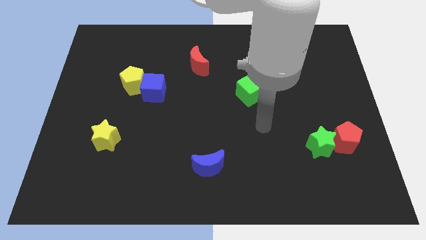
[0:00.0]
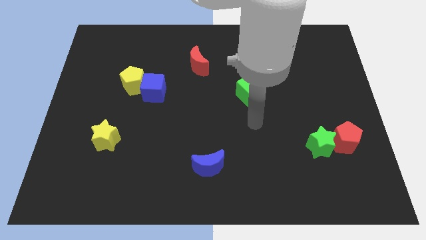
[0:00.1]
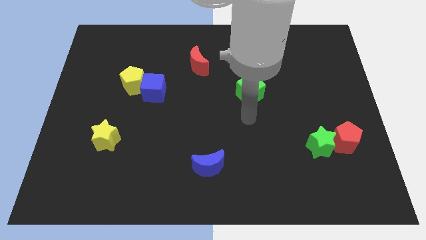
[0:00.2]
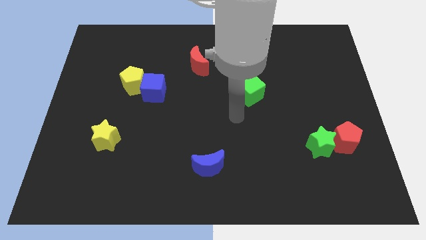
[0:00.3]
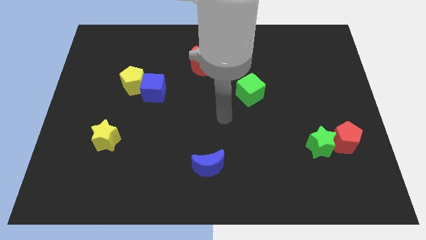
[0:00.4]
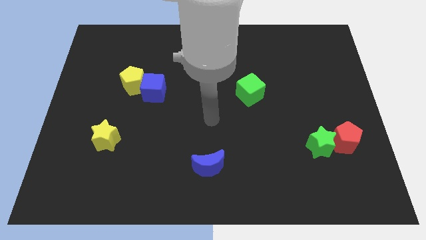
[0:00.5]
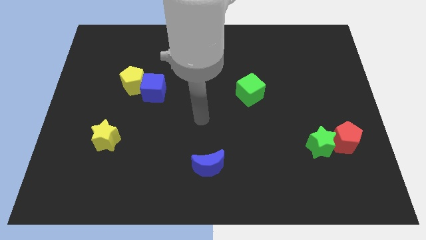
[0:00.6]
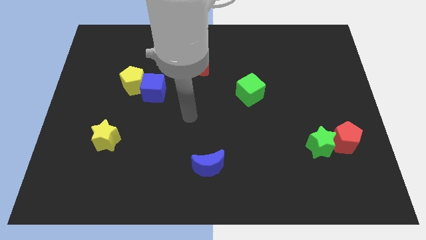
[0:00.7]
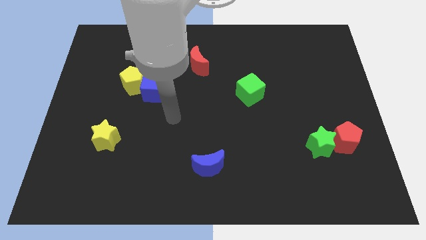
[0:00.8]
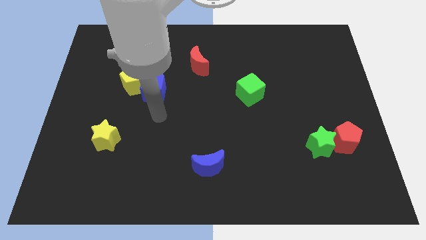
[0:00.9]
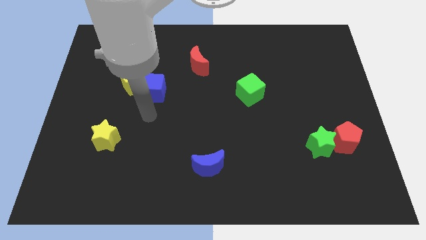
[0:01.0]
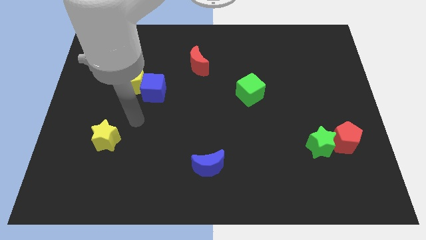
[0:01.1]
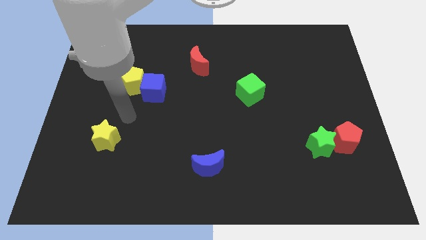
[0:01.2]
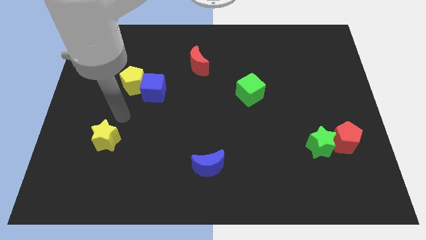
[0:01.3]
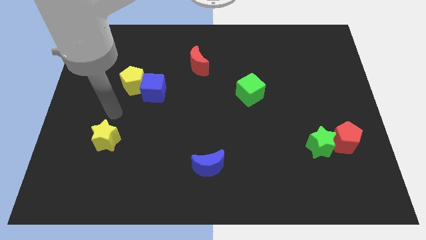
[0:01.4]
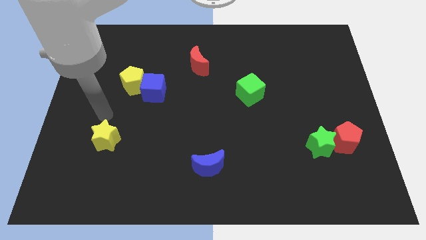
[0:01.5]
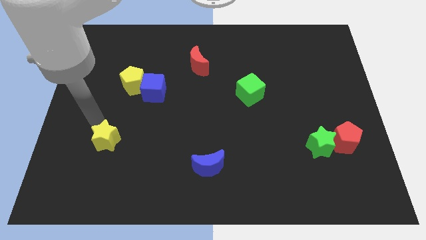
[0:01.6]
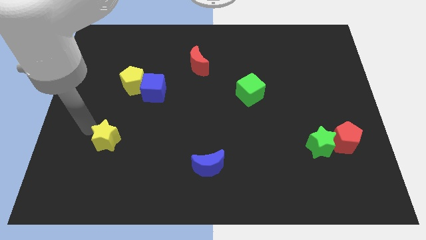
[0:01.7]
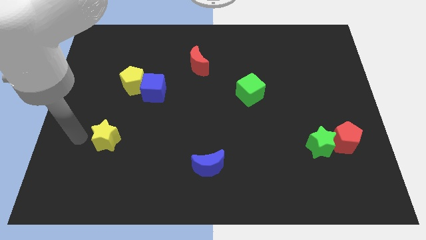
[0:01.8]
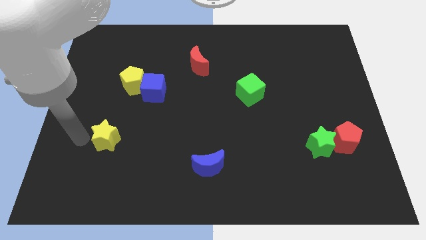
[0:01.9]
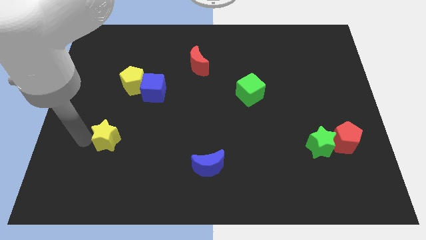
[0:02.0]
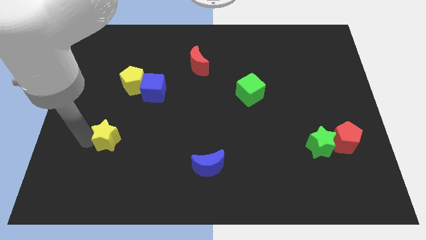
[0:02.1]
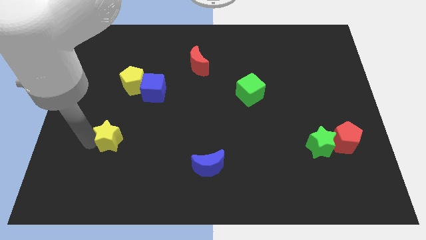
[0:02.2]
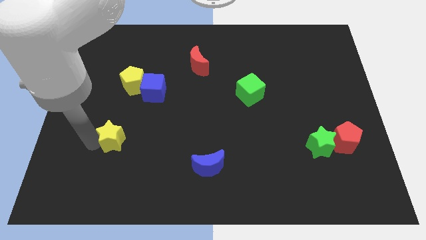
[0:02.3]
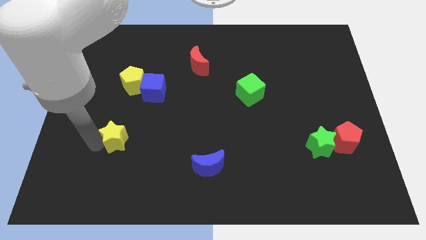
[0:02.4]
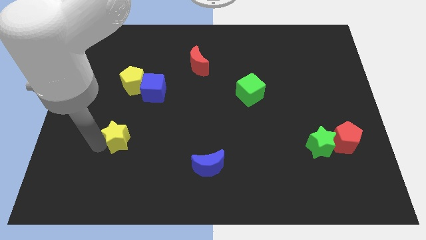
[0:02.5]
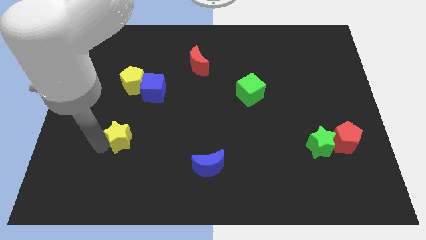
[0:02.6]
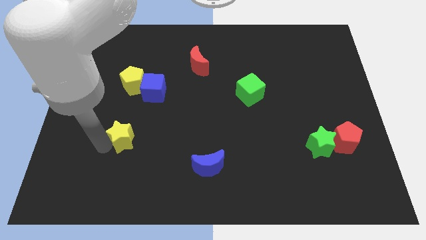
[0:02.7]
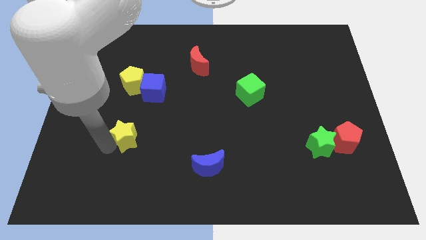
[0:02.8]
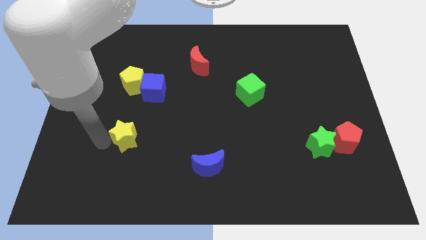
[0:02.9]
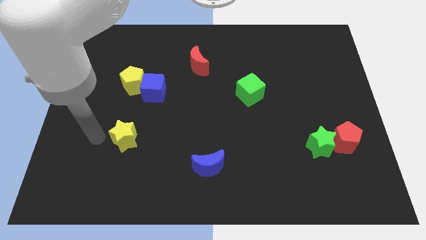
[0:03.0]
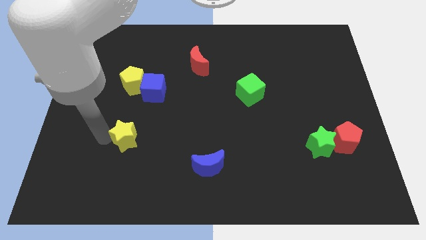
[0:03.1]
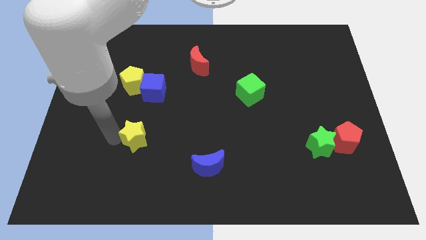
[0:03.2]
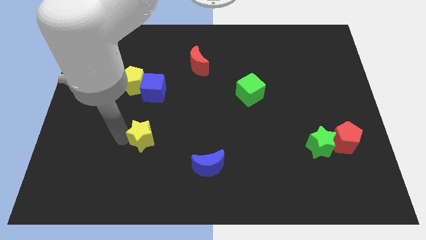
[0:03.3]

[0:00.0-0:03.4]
push the yellow star a bit right

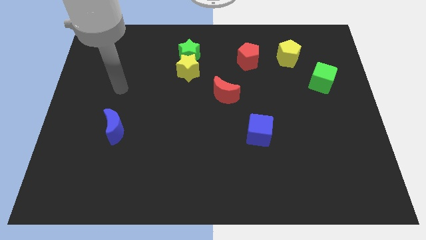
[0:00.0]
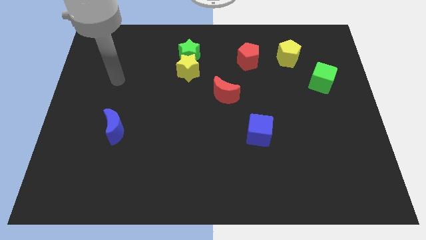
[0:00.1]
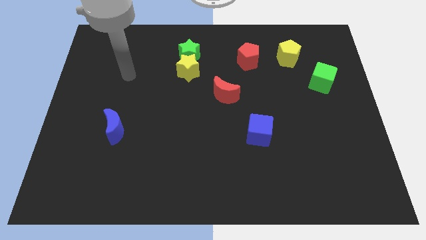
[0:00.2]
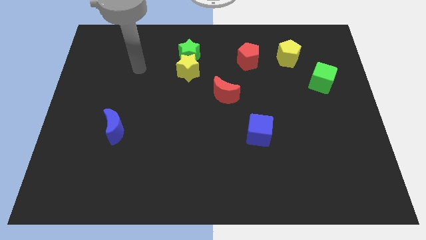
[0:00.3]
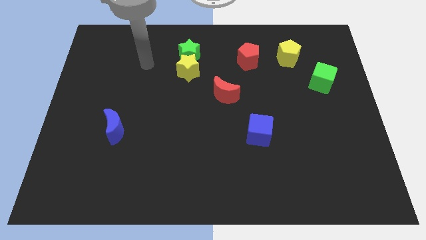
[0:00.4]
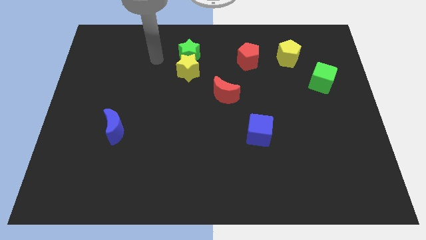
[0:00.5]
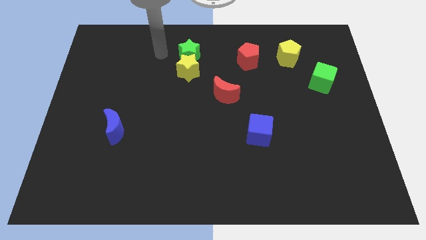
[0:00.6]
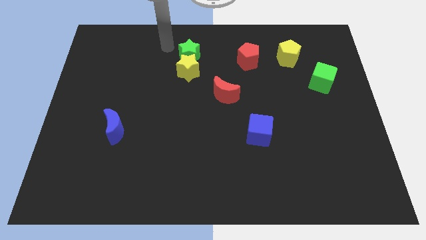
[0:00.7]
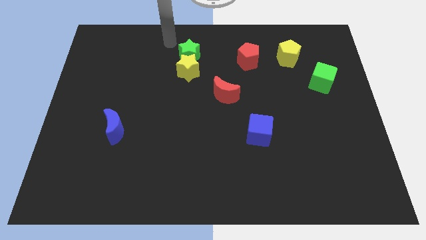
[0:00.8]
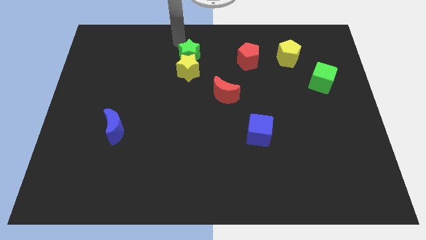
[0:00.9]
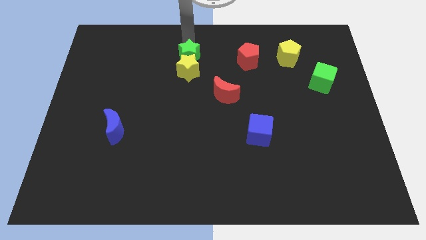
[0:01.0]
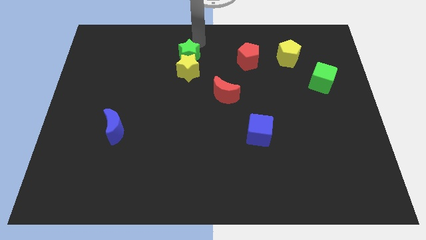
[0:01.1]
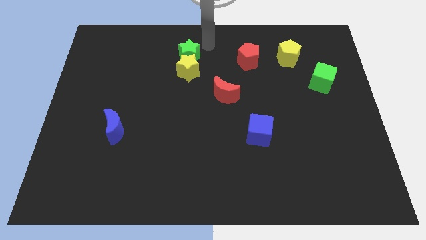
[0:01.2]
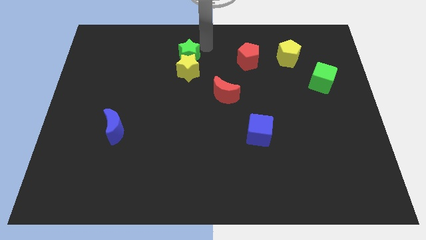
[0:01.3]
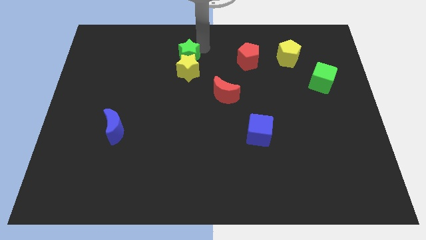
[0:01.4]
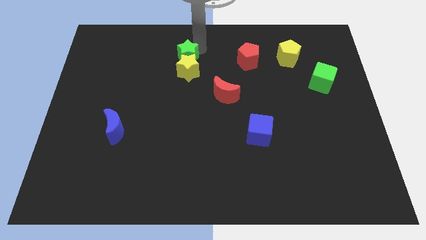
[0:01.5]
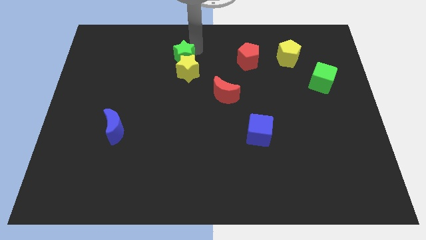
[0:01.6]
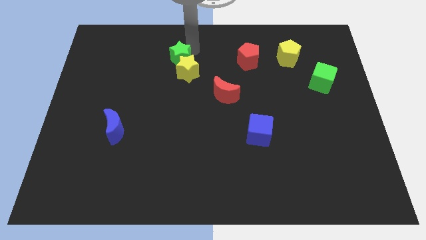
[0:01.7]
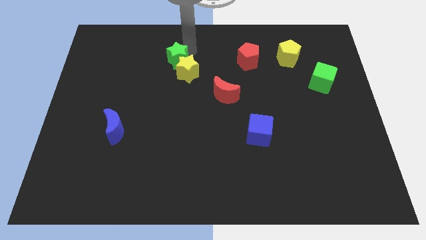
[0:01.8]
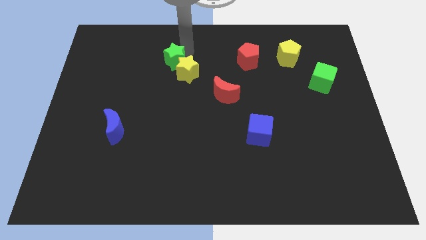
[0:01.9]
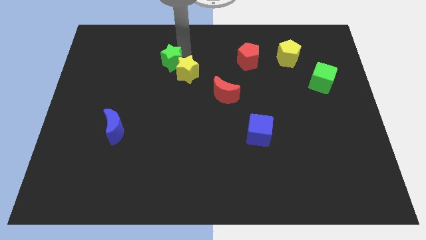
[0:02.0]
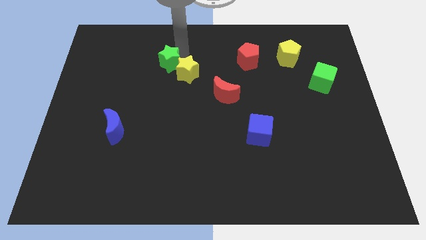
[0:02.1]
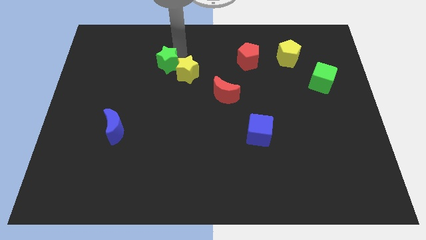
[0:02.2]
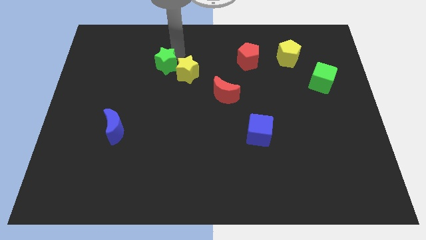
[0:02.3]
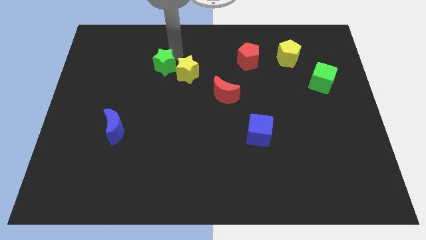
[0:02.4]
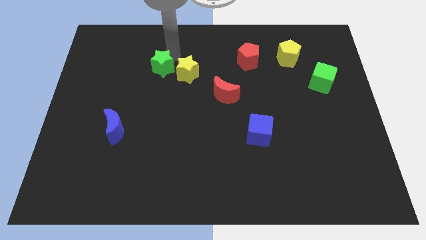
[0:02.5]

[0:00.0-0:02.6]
slide the green star a bit downwards and then to the left

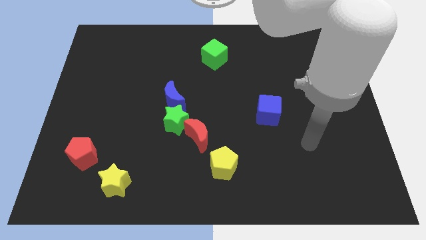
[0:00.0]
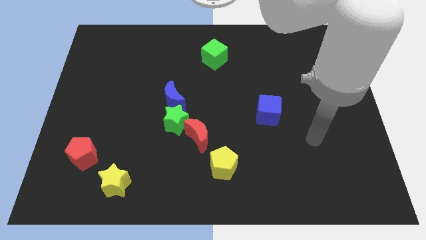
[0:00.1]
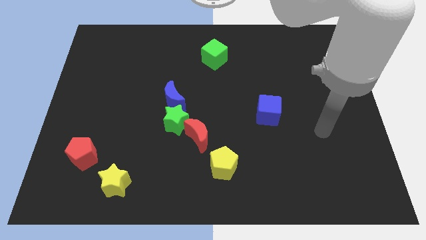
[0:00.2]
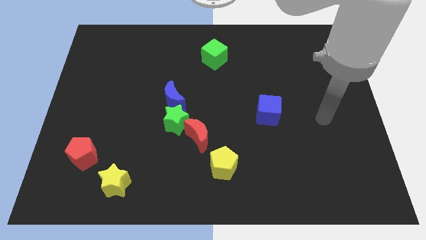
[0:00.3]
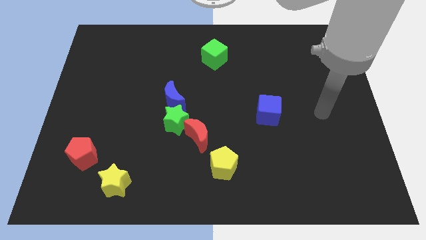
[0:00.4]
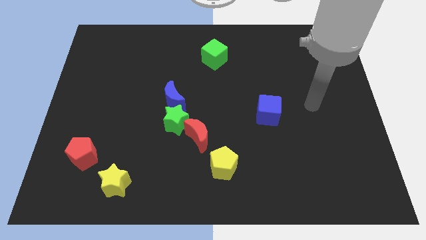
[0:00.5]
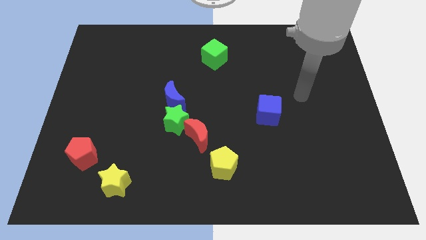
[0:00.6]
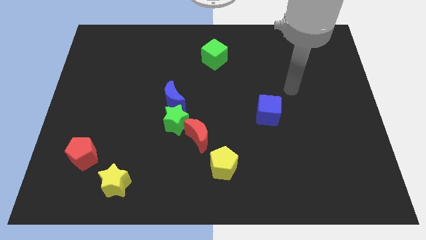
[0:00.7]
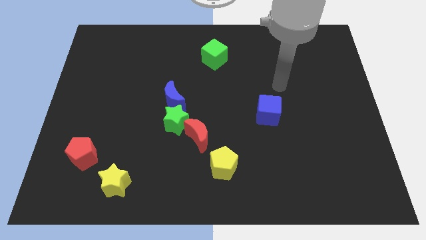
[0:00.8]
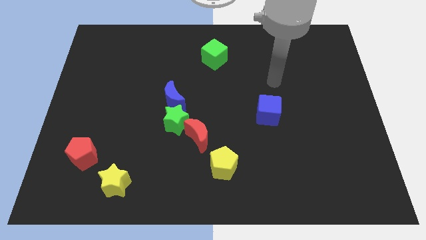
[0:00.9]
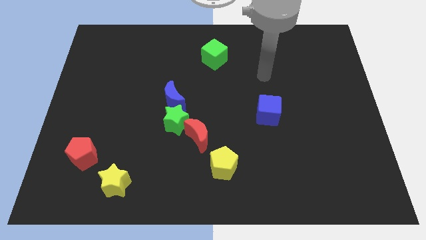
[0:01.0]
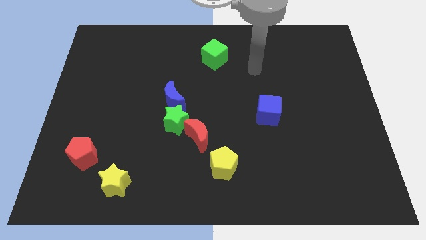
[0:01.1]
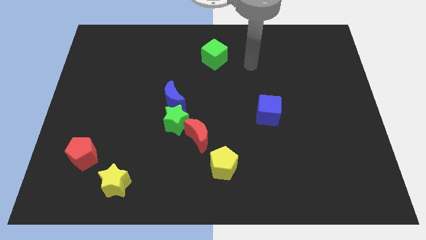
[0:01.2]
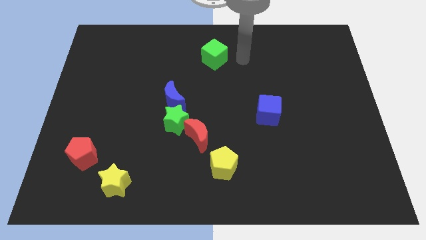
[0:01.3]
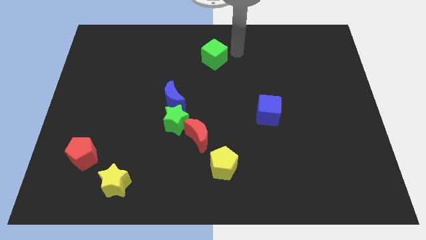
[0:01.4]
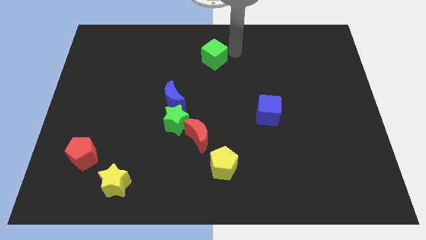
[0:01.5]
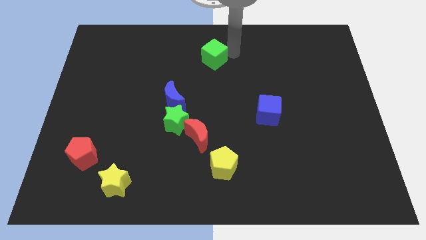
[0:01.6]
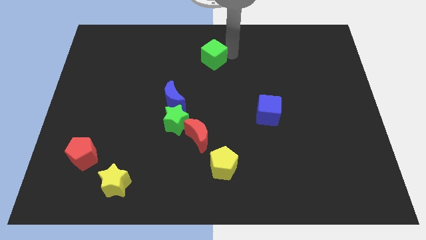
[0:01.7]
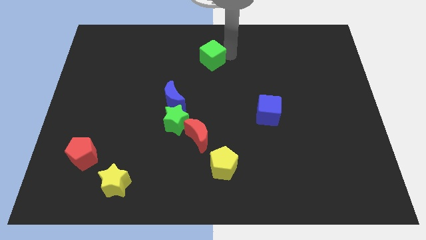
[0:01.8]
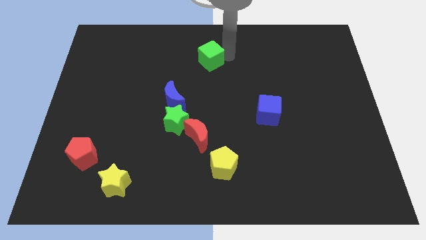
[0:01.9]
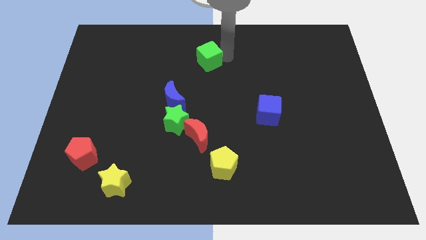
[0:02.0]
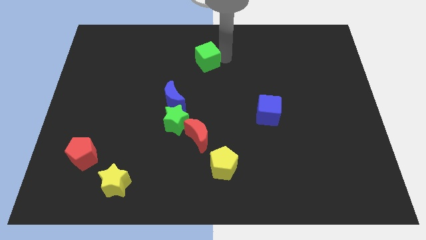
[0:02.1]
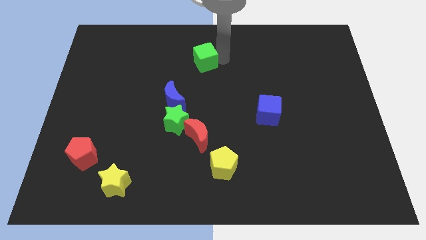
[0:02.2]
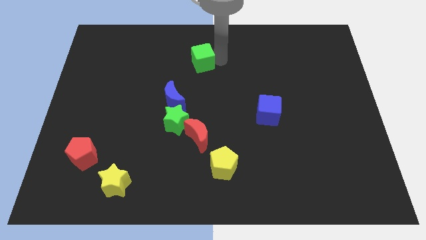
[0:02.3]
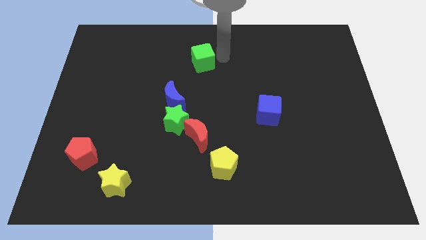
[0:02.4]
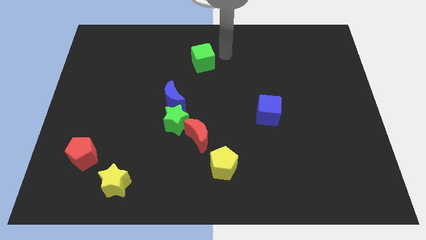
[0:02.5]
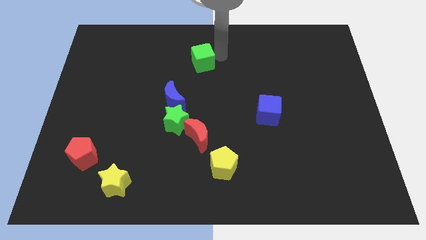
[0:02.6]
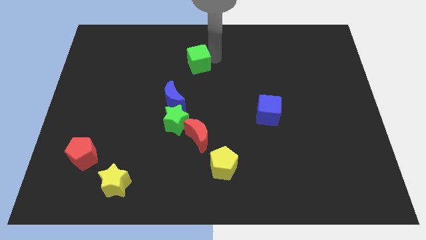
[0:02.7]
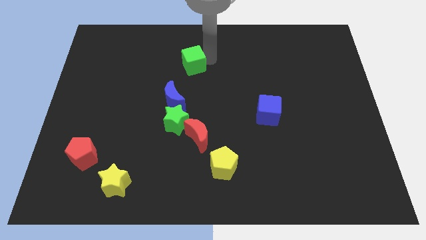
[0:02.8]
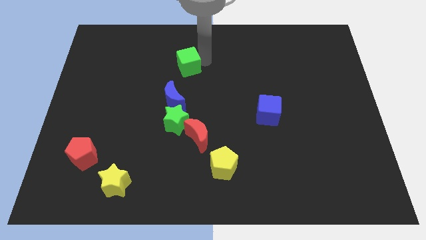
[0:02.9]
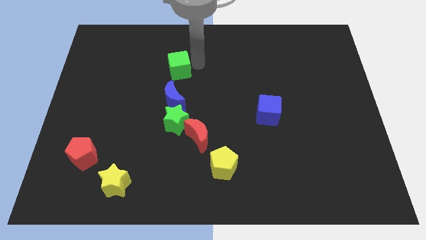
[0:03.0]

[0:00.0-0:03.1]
slightly move the green cube to the left
